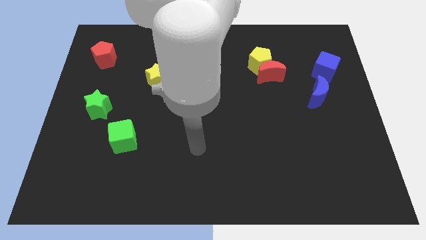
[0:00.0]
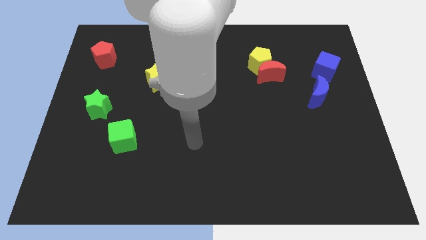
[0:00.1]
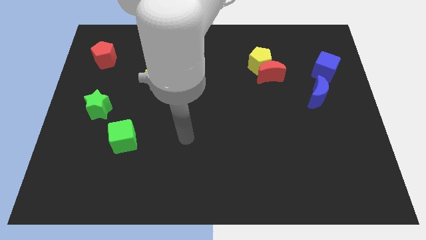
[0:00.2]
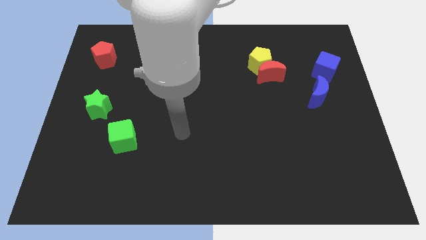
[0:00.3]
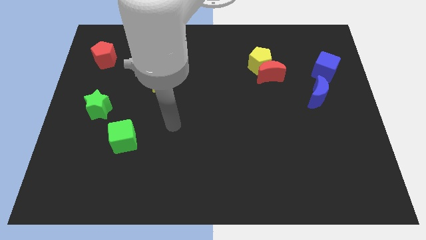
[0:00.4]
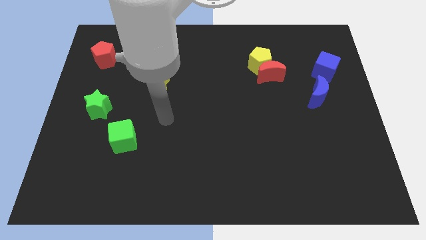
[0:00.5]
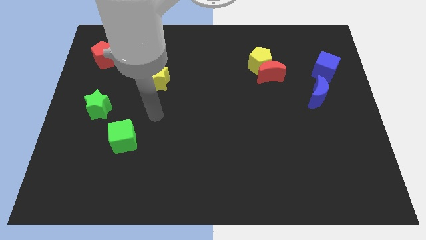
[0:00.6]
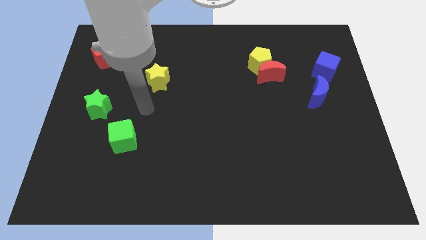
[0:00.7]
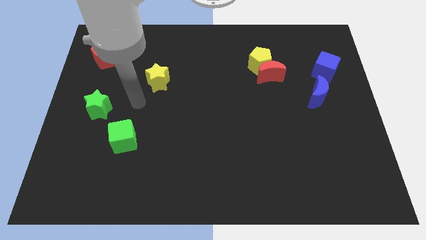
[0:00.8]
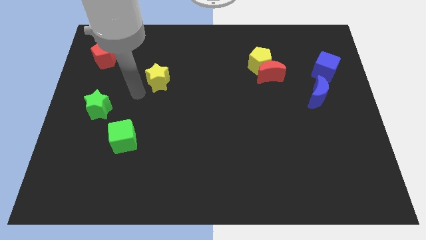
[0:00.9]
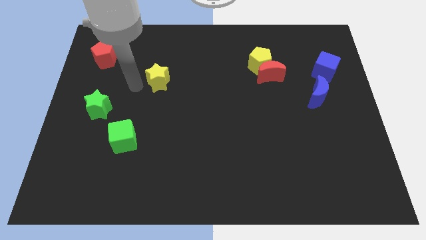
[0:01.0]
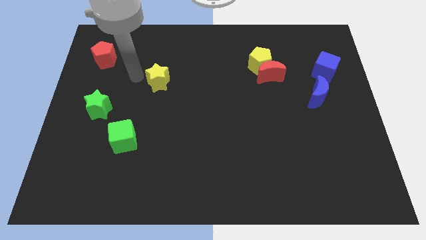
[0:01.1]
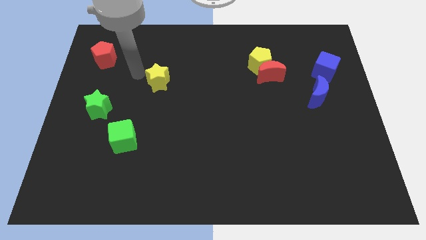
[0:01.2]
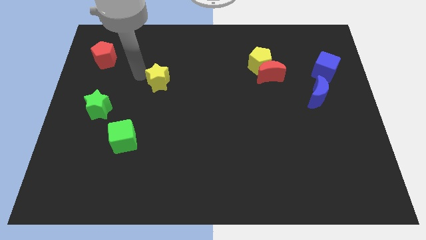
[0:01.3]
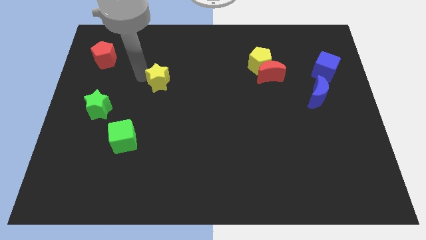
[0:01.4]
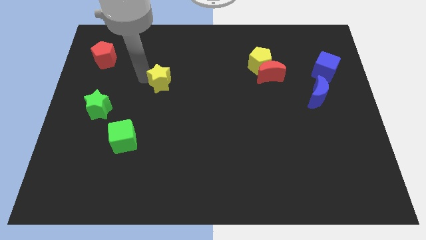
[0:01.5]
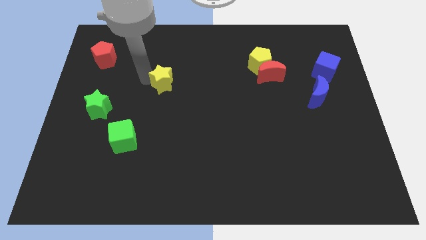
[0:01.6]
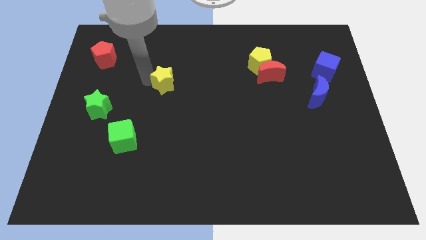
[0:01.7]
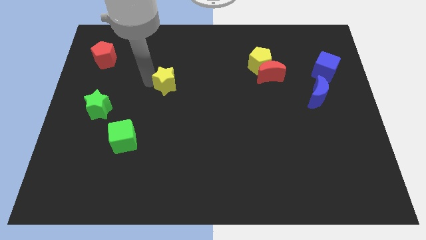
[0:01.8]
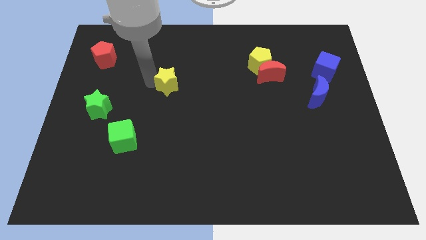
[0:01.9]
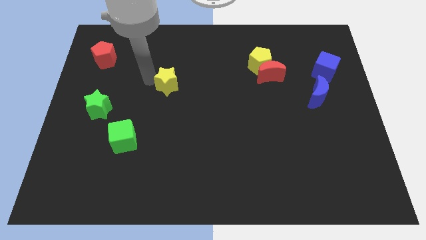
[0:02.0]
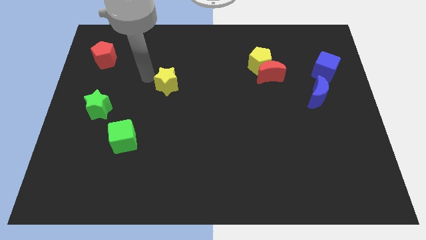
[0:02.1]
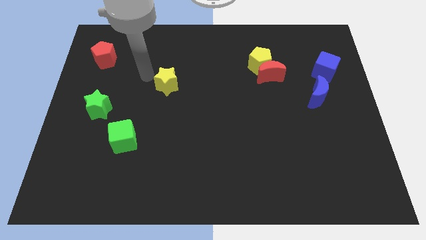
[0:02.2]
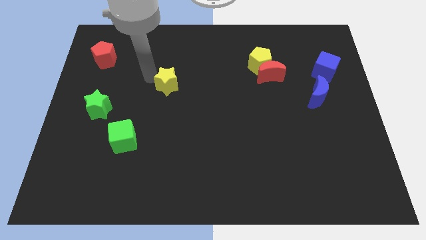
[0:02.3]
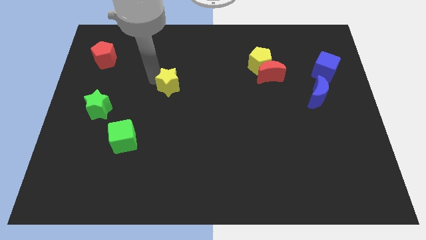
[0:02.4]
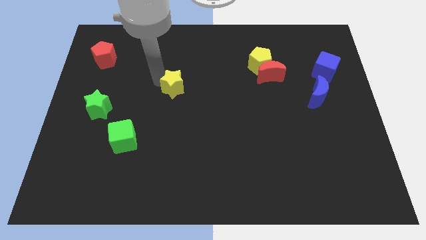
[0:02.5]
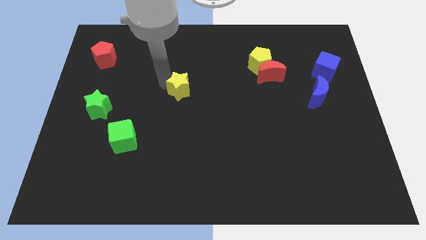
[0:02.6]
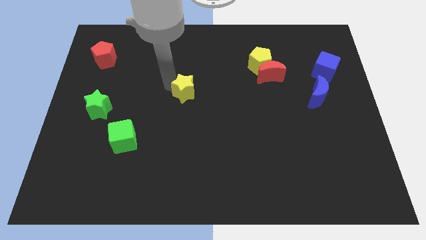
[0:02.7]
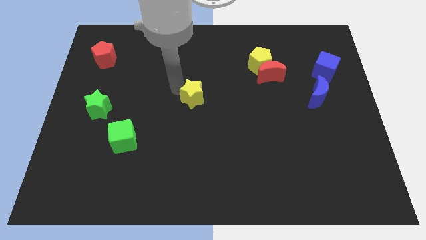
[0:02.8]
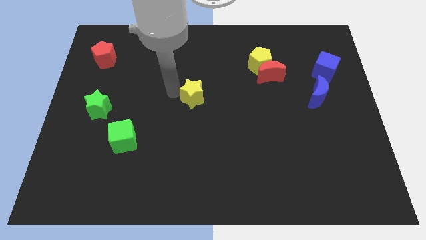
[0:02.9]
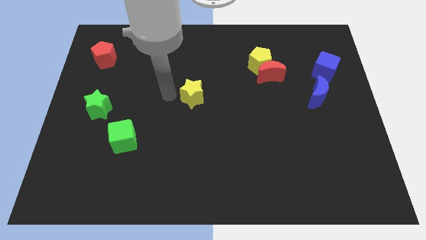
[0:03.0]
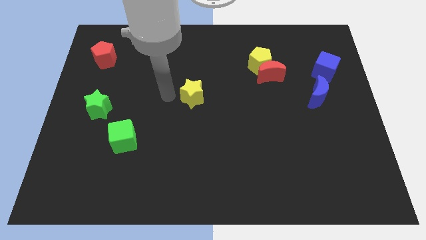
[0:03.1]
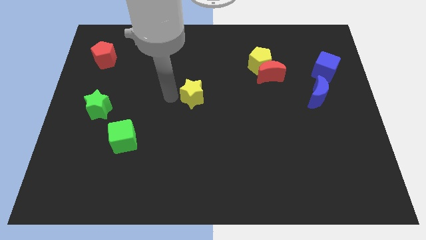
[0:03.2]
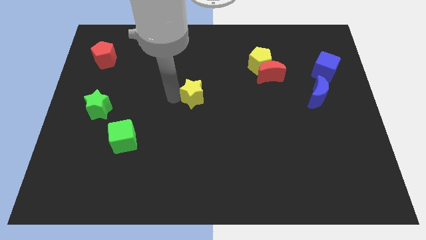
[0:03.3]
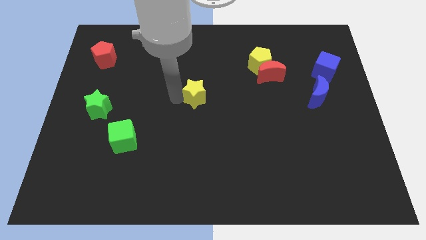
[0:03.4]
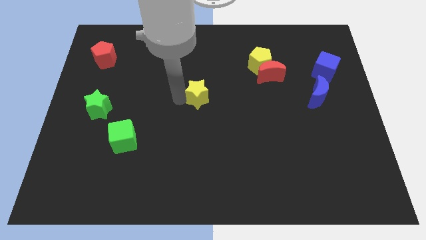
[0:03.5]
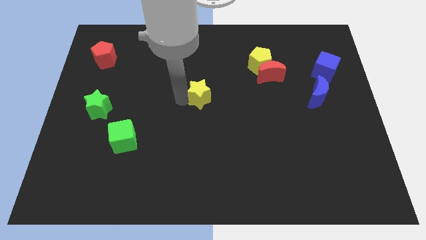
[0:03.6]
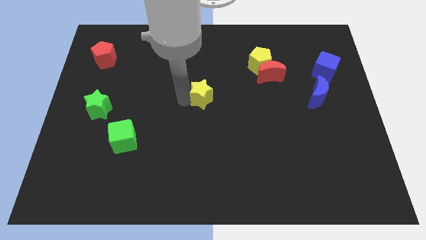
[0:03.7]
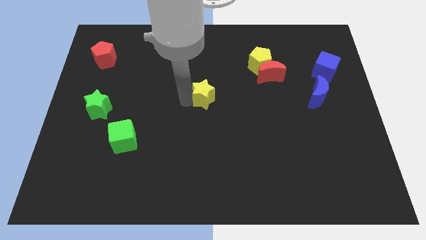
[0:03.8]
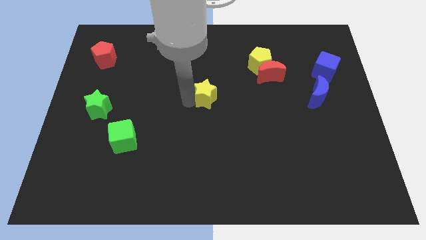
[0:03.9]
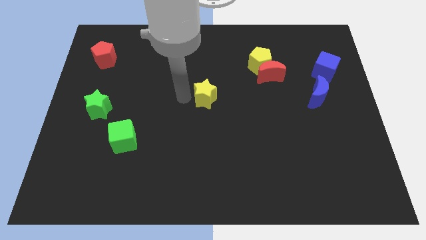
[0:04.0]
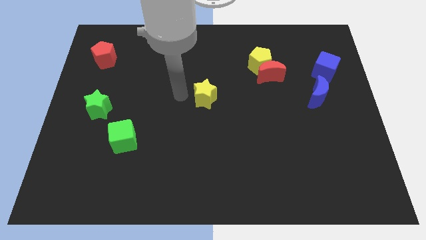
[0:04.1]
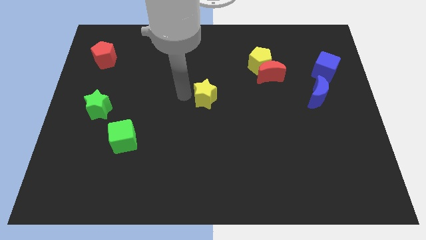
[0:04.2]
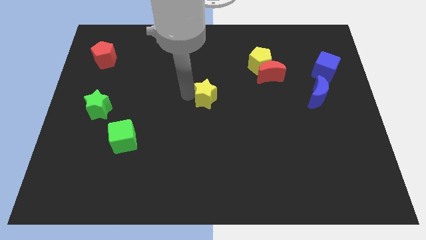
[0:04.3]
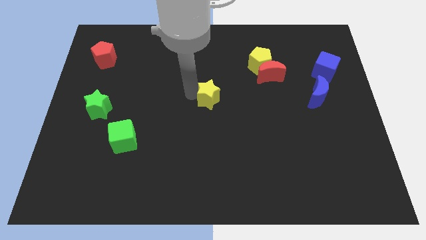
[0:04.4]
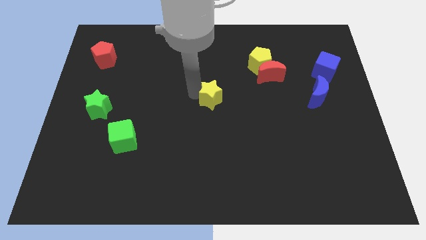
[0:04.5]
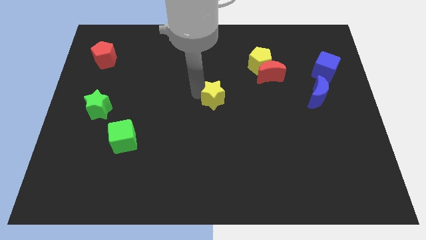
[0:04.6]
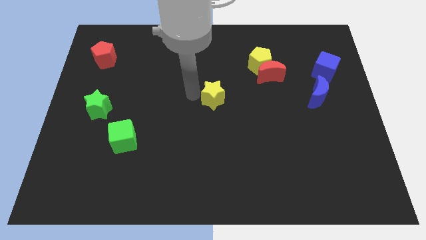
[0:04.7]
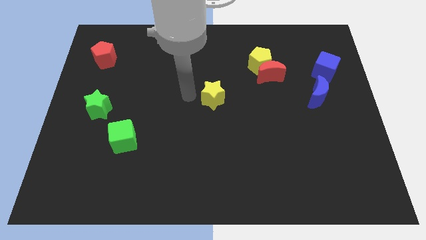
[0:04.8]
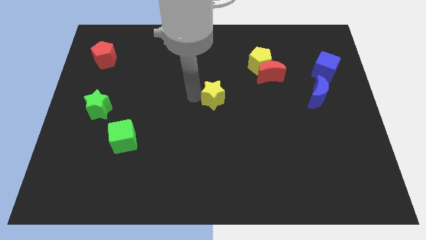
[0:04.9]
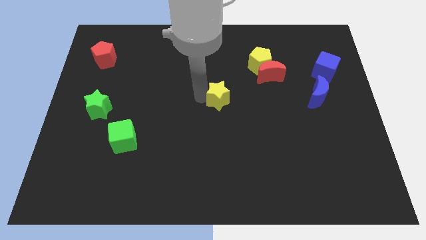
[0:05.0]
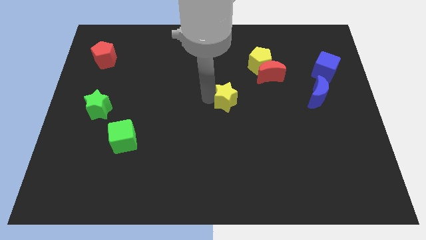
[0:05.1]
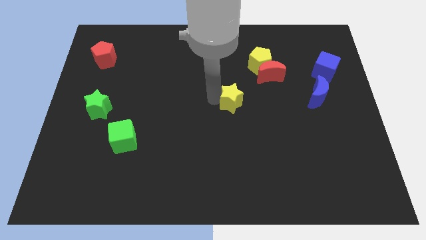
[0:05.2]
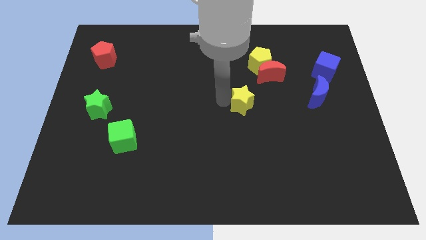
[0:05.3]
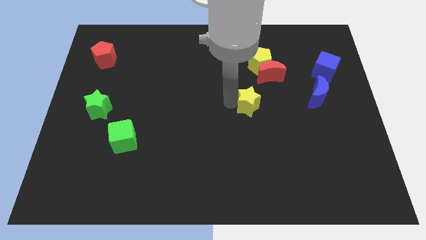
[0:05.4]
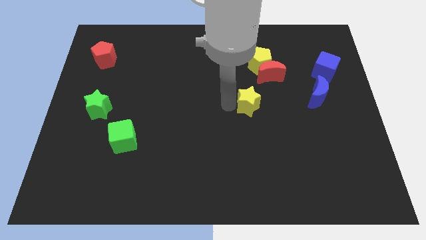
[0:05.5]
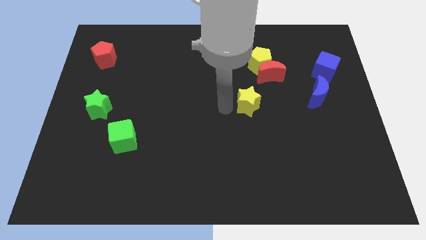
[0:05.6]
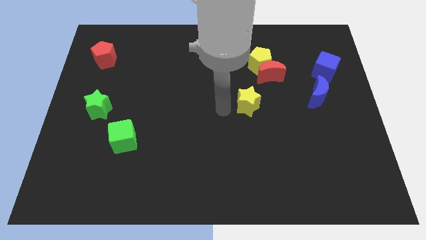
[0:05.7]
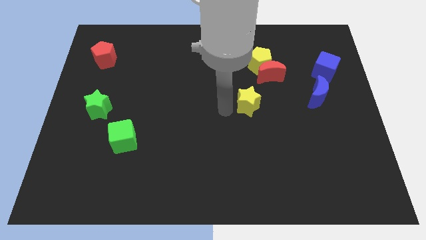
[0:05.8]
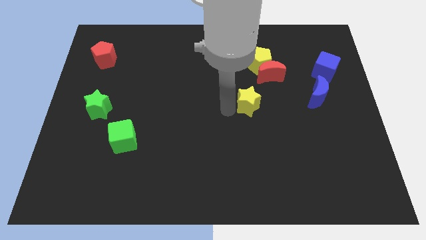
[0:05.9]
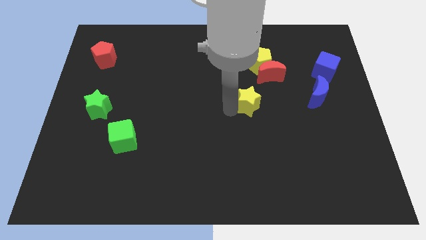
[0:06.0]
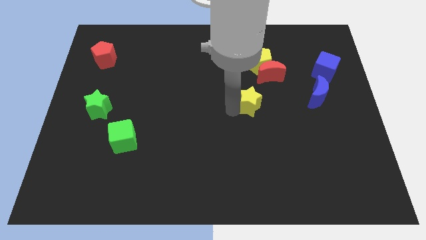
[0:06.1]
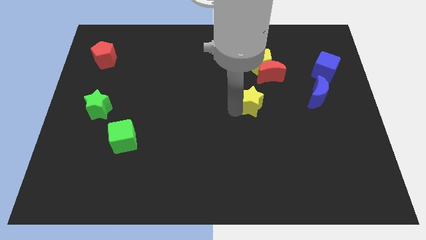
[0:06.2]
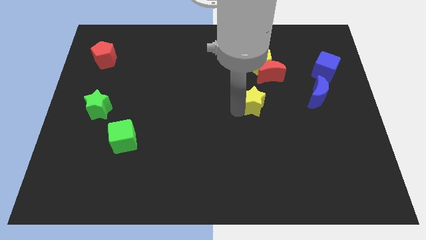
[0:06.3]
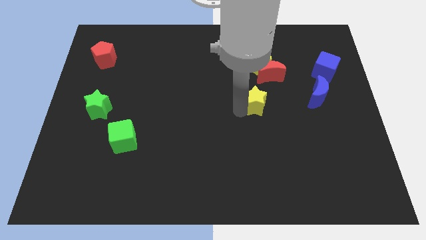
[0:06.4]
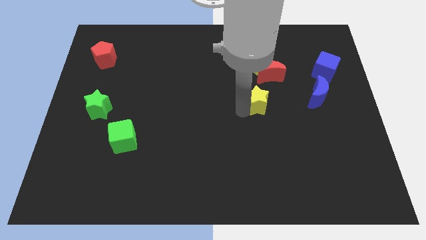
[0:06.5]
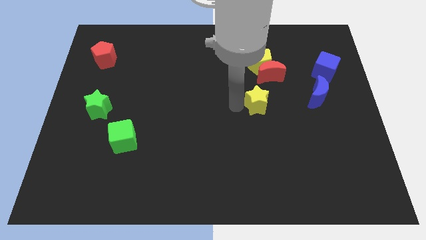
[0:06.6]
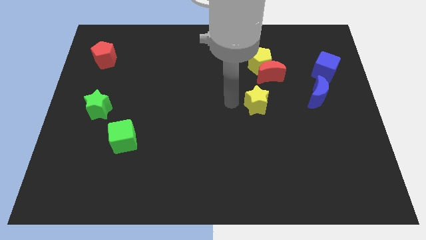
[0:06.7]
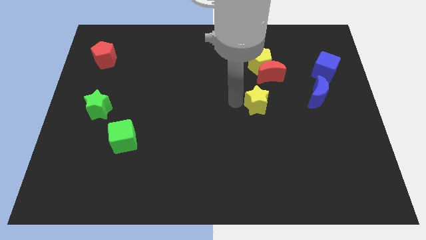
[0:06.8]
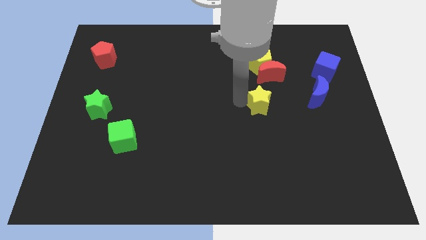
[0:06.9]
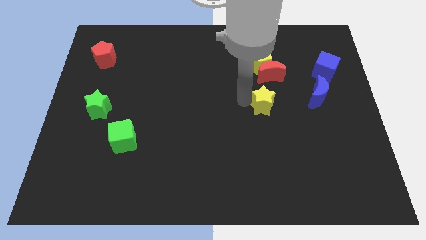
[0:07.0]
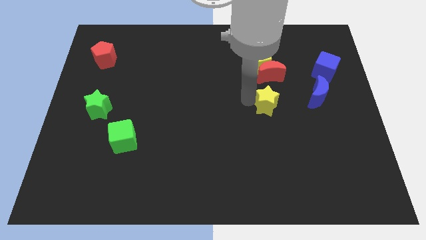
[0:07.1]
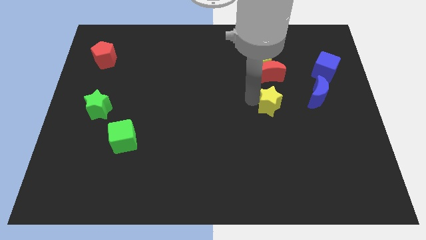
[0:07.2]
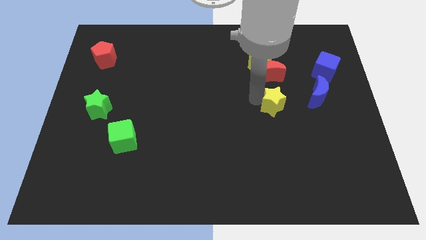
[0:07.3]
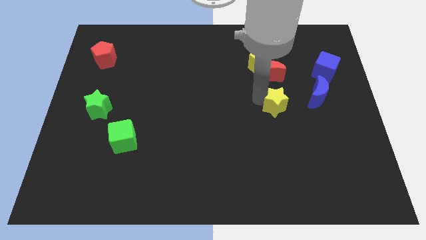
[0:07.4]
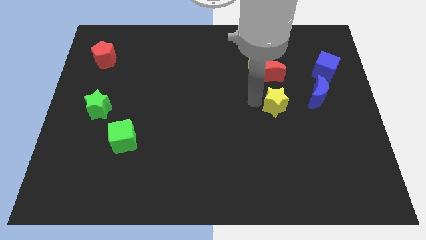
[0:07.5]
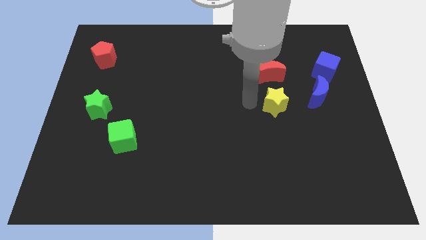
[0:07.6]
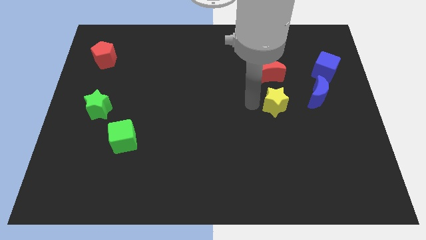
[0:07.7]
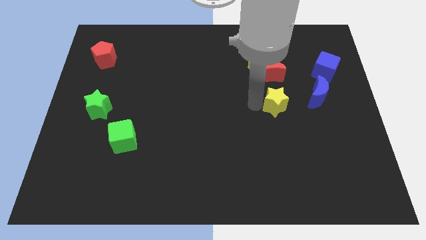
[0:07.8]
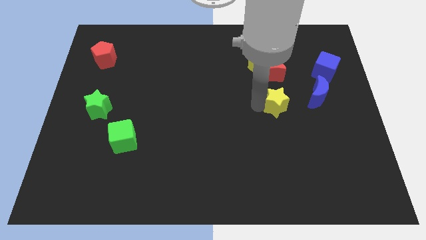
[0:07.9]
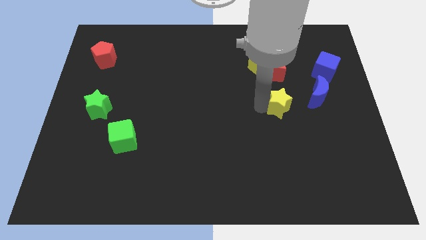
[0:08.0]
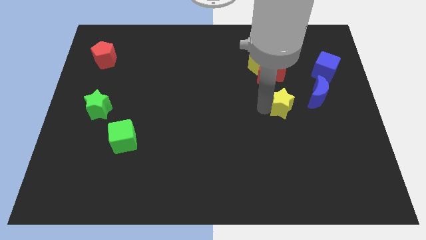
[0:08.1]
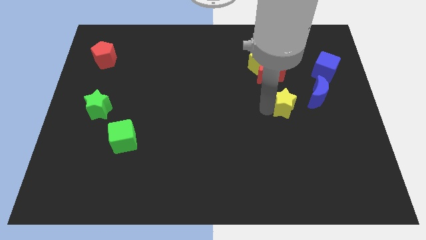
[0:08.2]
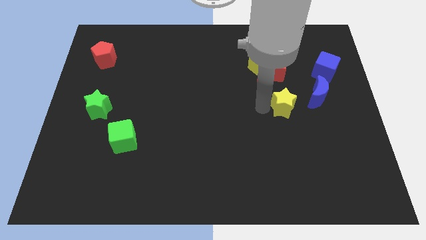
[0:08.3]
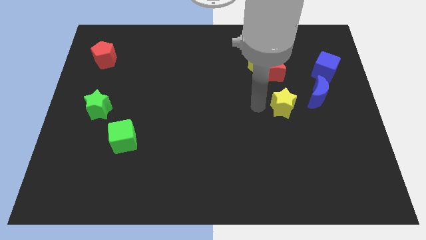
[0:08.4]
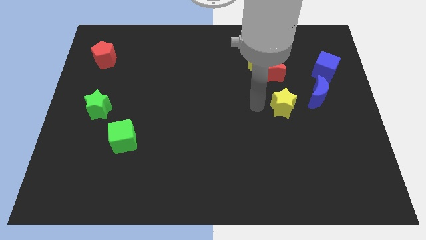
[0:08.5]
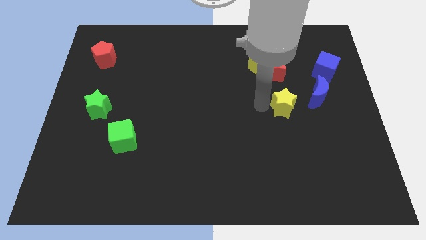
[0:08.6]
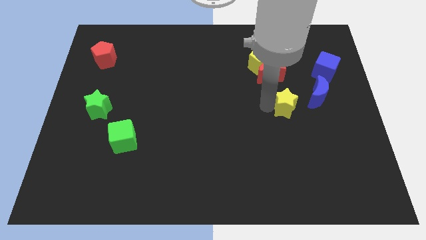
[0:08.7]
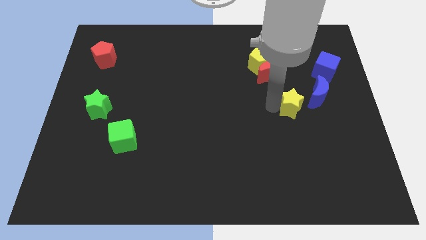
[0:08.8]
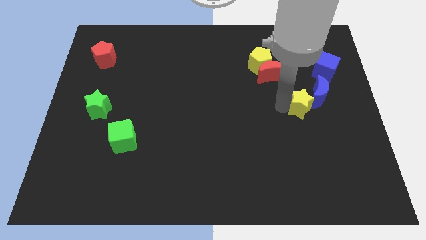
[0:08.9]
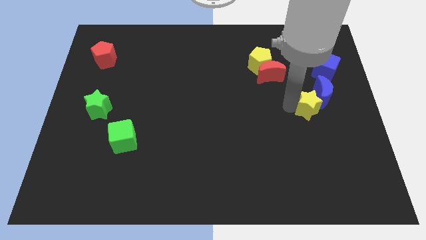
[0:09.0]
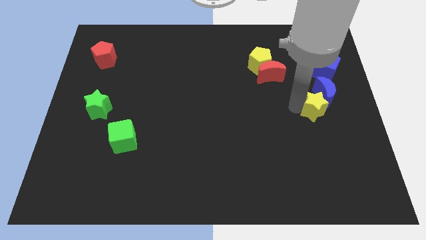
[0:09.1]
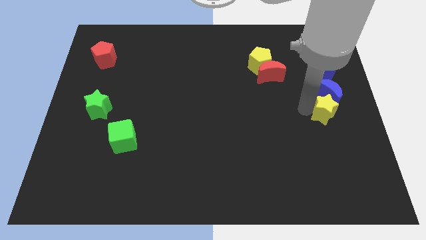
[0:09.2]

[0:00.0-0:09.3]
move the yellow star to the right side of the board
